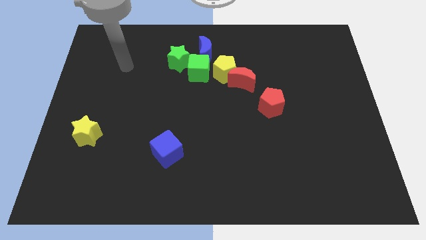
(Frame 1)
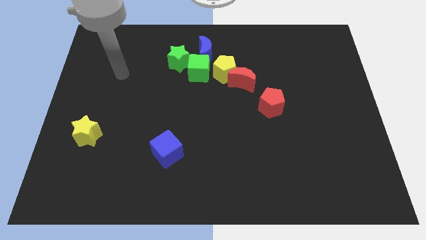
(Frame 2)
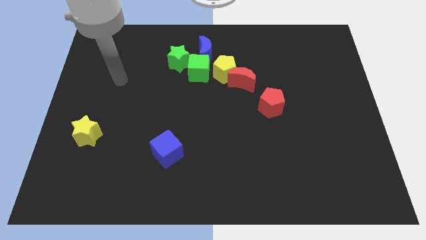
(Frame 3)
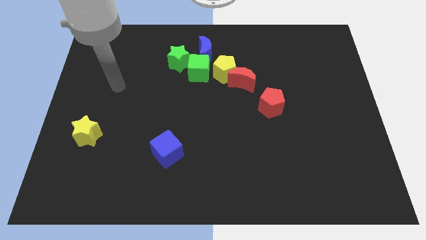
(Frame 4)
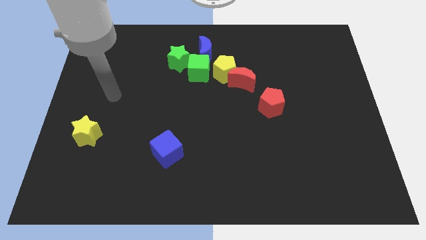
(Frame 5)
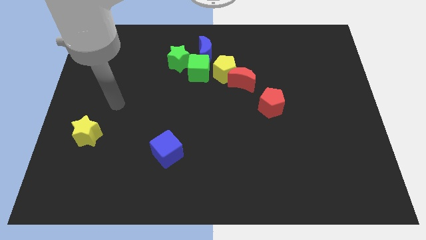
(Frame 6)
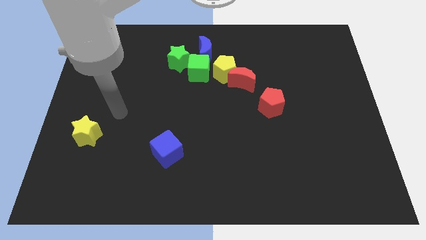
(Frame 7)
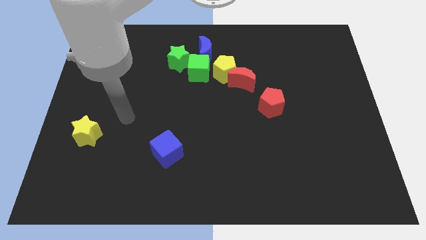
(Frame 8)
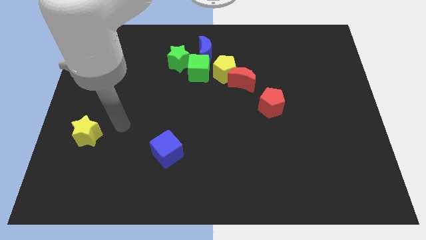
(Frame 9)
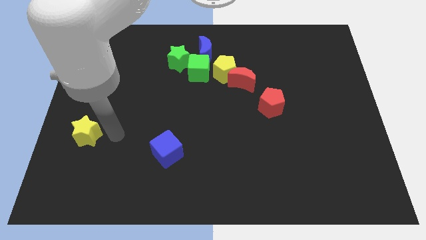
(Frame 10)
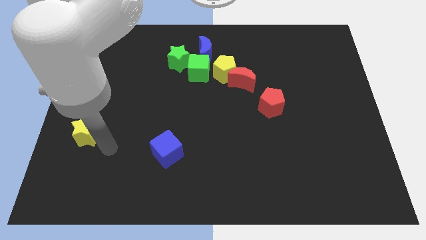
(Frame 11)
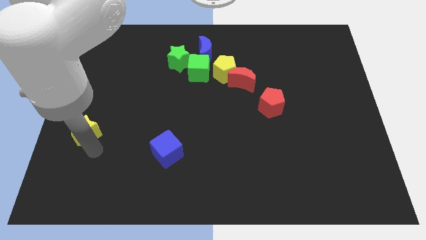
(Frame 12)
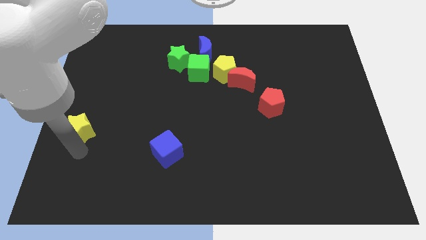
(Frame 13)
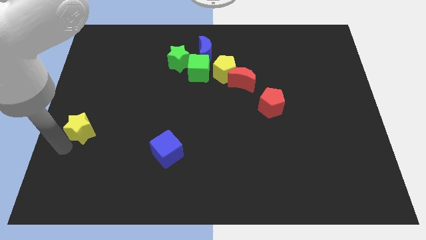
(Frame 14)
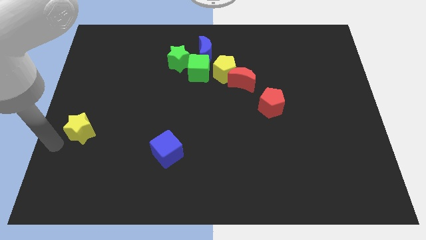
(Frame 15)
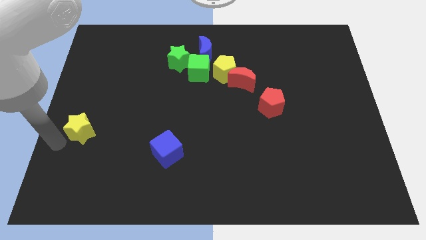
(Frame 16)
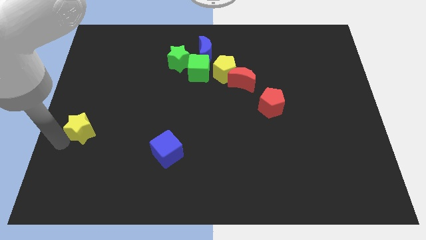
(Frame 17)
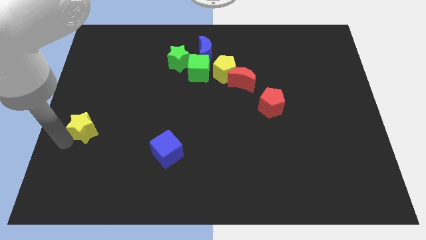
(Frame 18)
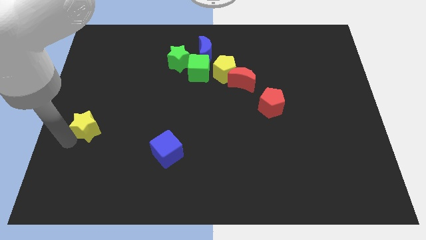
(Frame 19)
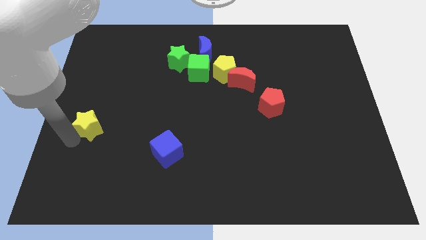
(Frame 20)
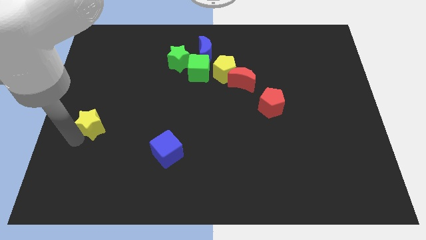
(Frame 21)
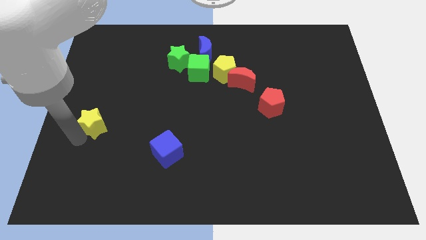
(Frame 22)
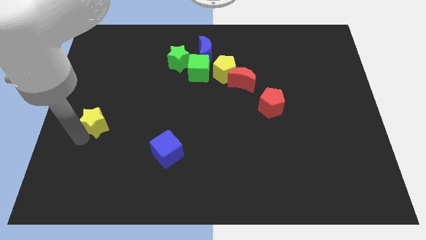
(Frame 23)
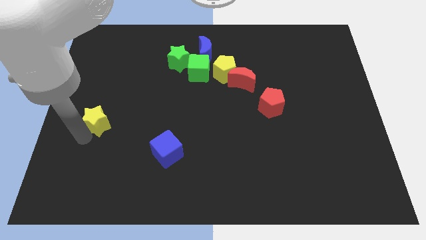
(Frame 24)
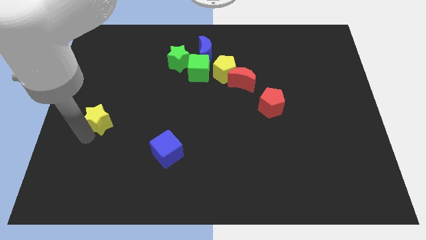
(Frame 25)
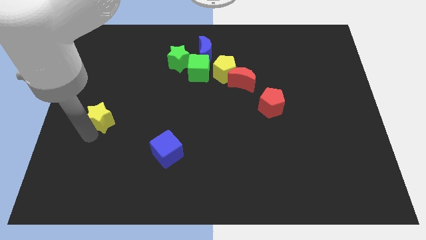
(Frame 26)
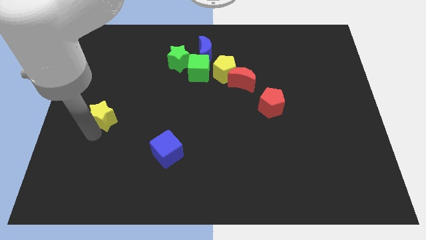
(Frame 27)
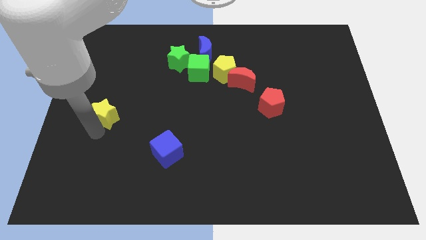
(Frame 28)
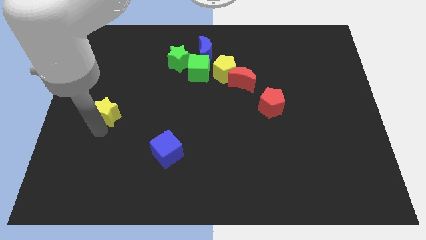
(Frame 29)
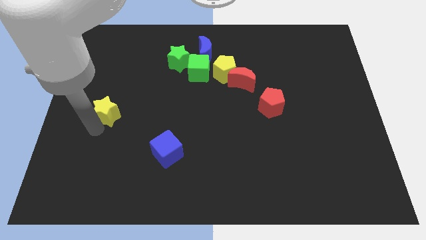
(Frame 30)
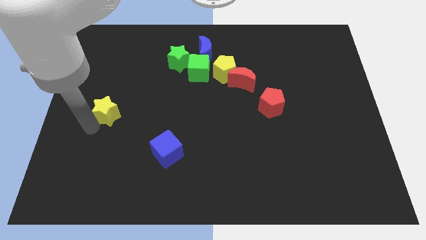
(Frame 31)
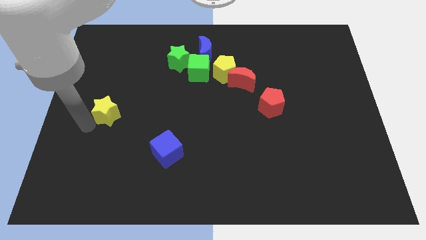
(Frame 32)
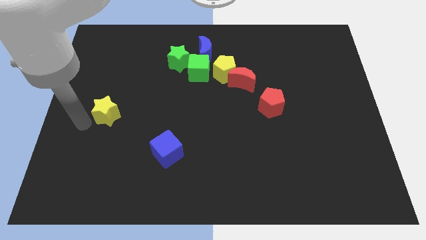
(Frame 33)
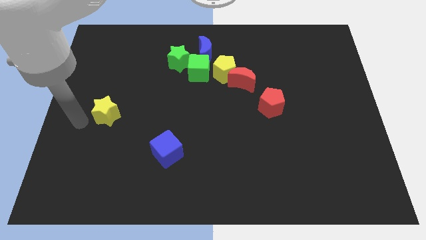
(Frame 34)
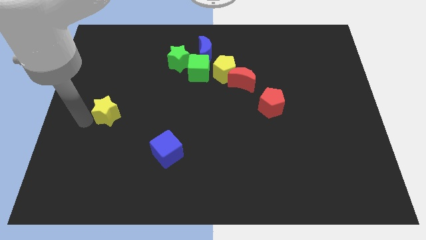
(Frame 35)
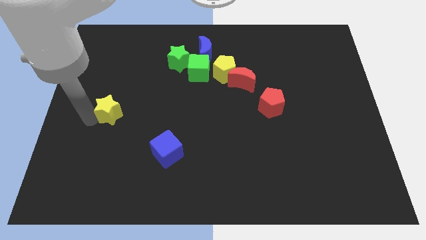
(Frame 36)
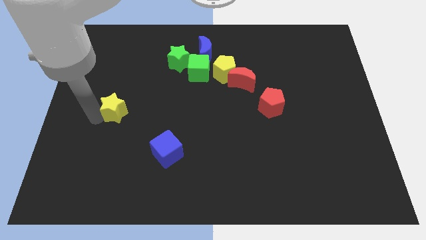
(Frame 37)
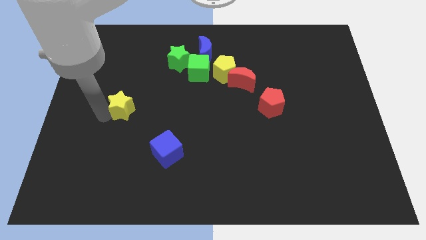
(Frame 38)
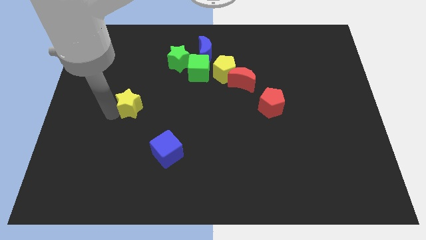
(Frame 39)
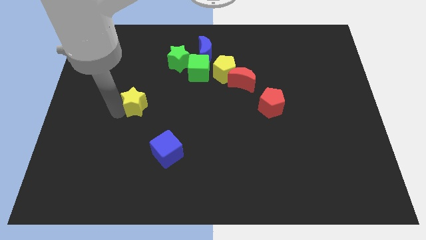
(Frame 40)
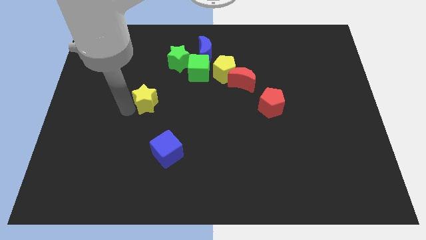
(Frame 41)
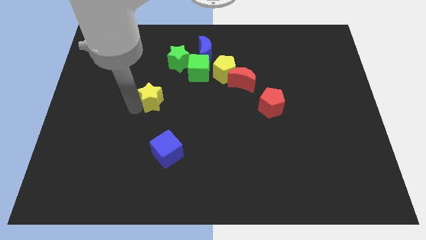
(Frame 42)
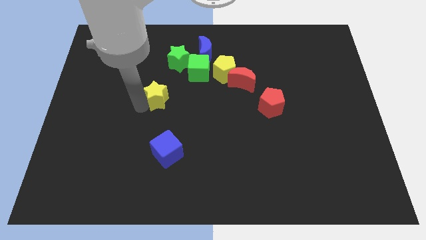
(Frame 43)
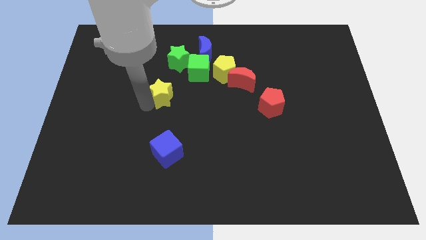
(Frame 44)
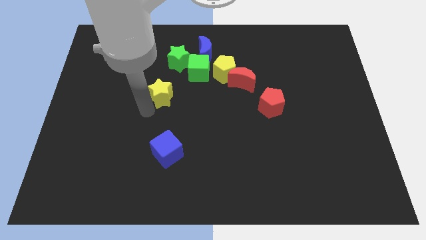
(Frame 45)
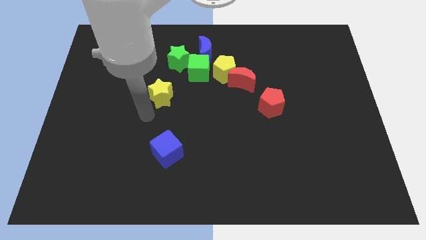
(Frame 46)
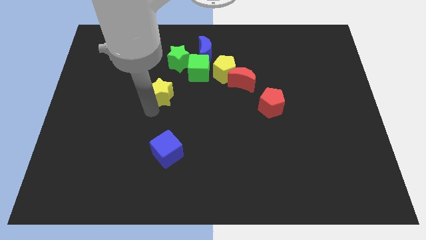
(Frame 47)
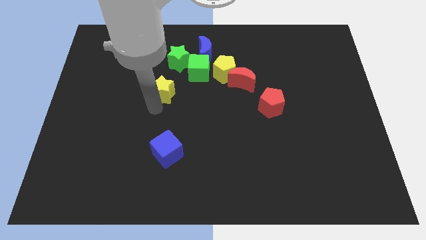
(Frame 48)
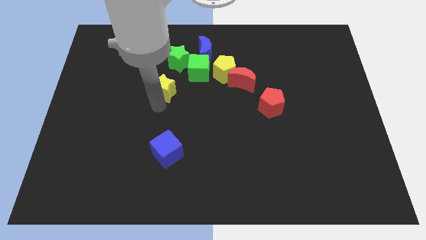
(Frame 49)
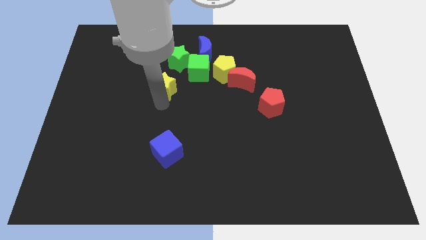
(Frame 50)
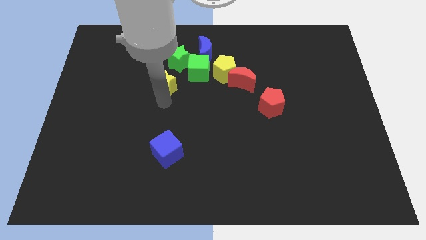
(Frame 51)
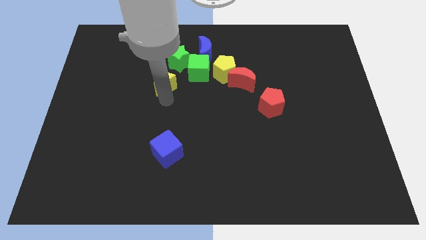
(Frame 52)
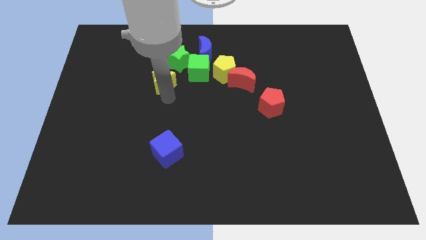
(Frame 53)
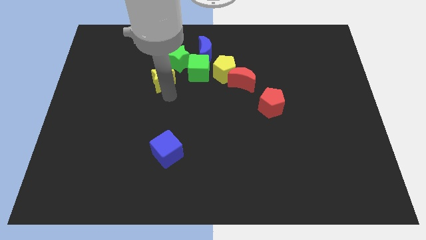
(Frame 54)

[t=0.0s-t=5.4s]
slide the yellow star left of the yellow pentagon

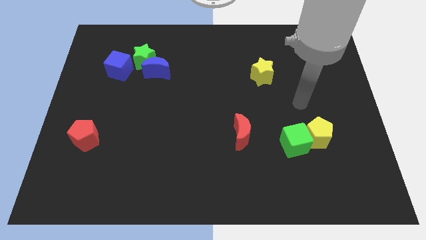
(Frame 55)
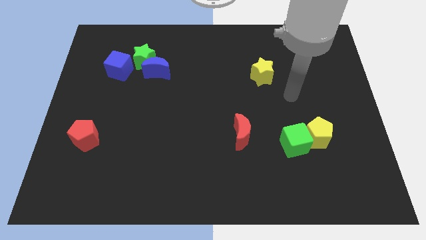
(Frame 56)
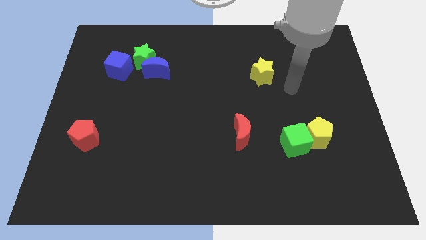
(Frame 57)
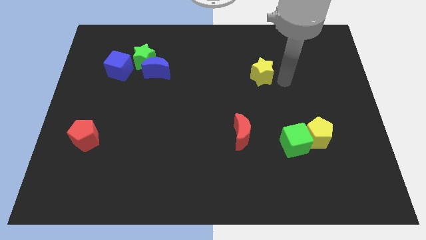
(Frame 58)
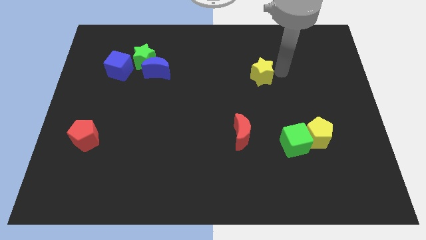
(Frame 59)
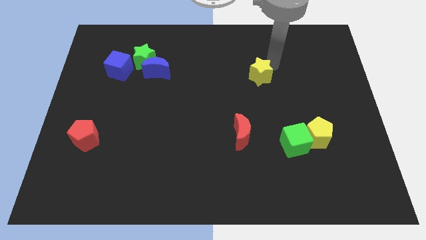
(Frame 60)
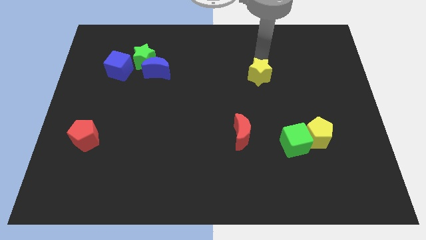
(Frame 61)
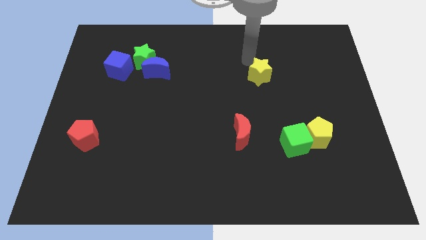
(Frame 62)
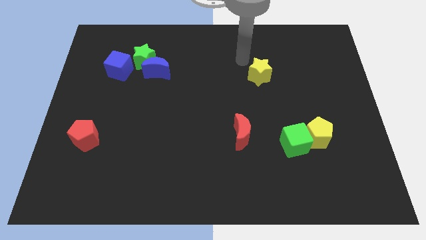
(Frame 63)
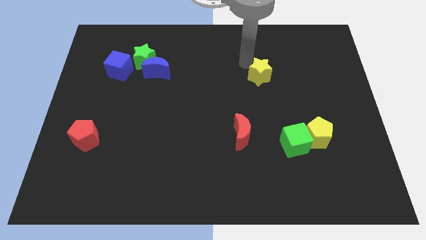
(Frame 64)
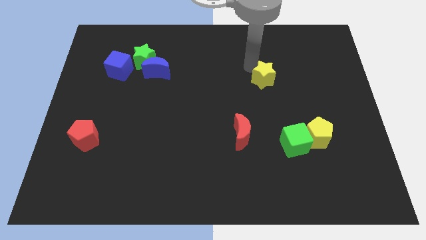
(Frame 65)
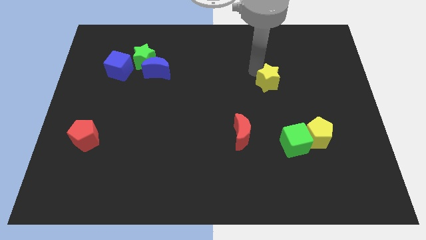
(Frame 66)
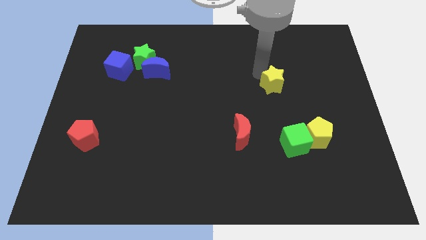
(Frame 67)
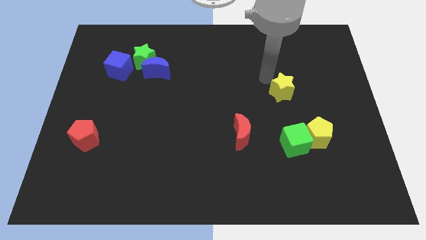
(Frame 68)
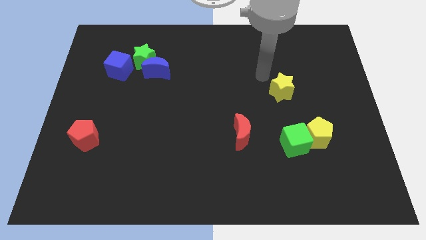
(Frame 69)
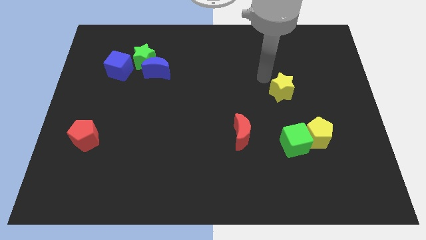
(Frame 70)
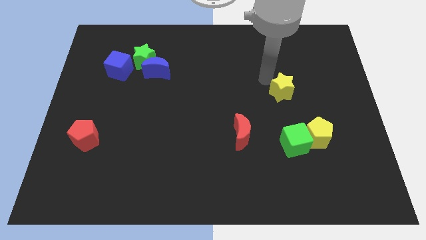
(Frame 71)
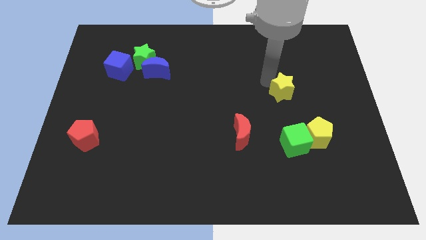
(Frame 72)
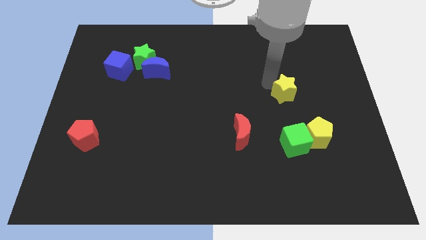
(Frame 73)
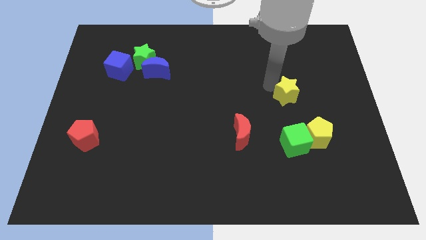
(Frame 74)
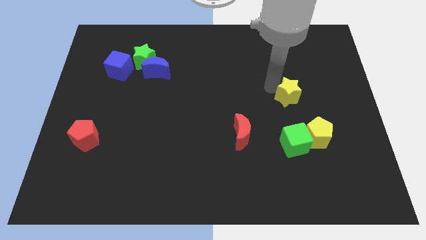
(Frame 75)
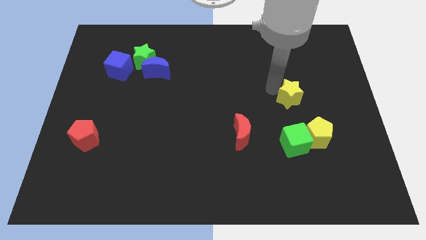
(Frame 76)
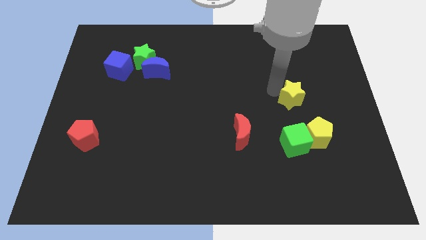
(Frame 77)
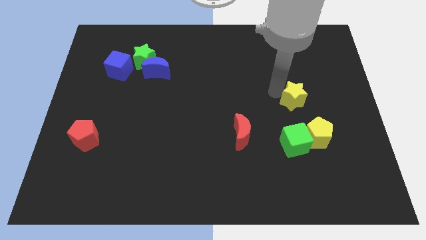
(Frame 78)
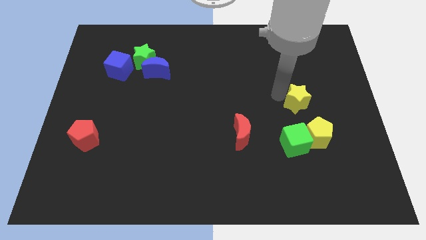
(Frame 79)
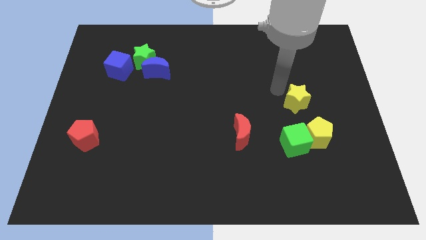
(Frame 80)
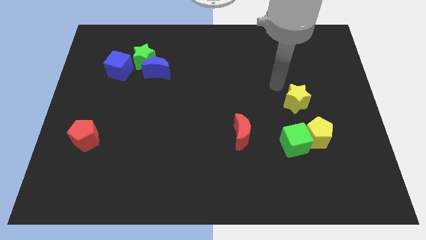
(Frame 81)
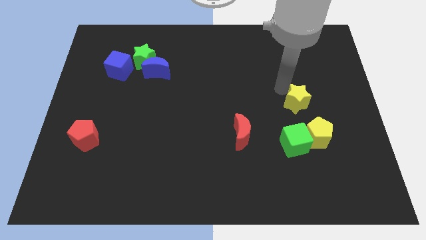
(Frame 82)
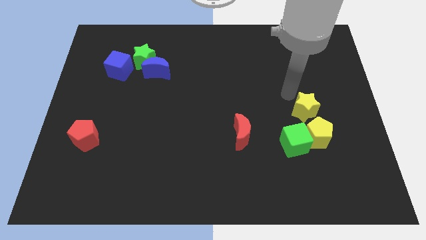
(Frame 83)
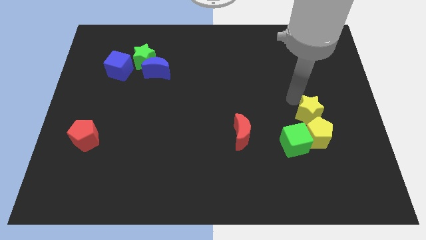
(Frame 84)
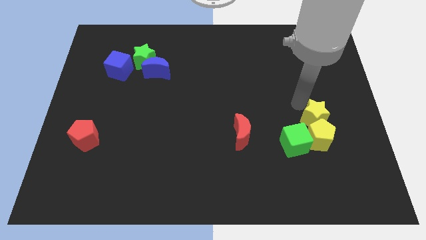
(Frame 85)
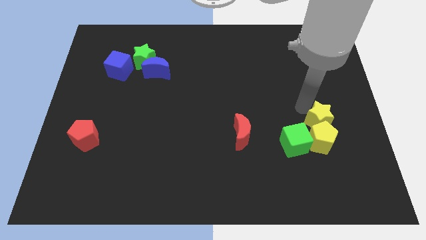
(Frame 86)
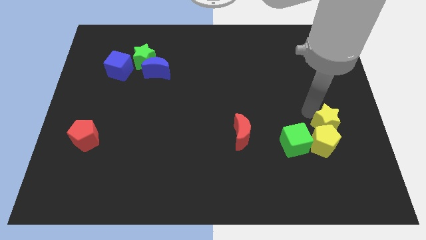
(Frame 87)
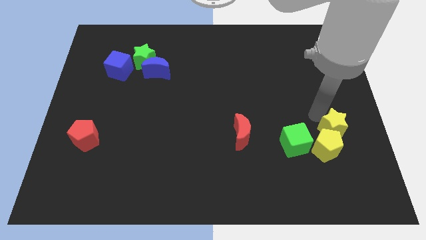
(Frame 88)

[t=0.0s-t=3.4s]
put the yellow star to the right side of the green cube
